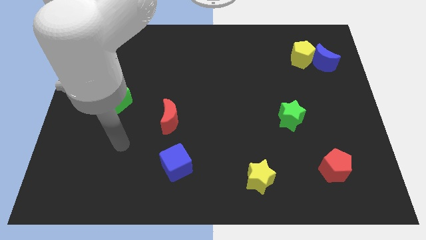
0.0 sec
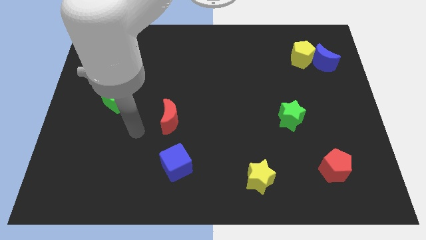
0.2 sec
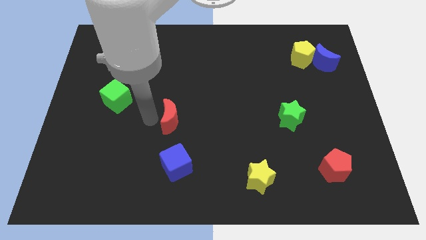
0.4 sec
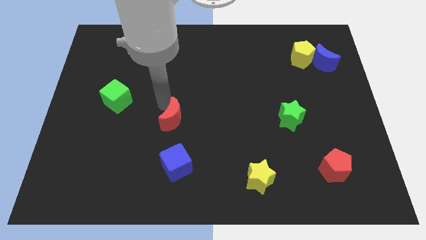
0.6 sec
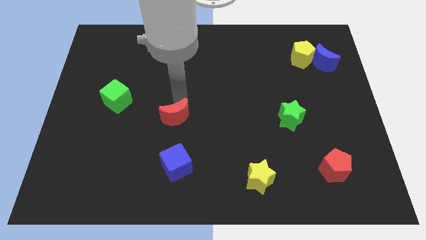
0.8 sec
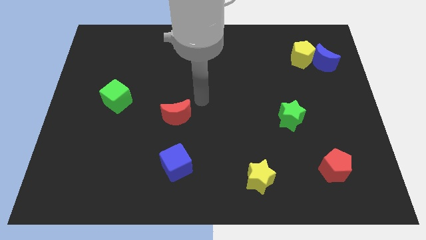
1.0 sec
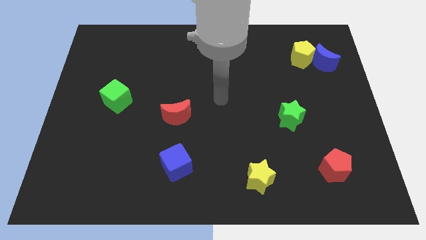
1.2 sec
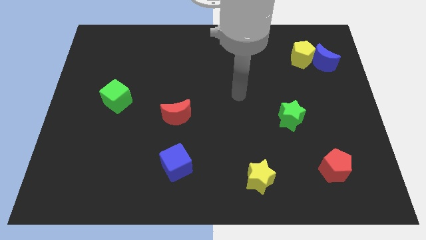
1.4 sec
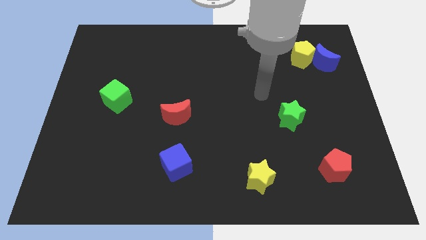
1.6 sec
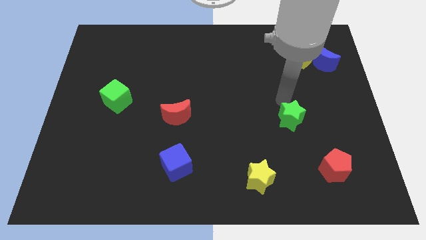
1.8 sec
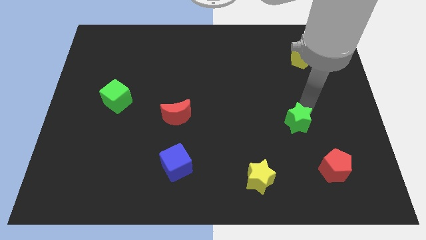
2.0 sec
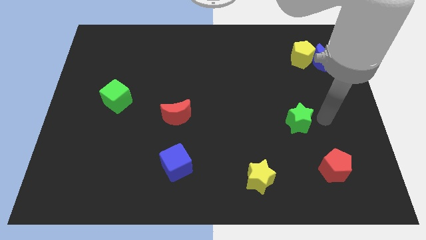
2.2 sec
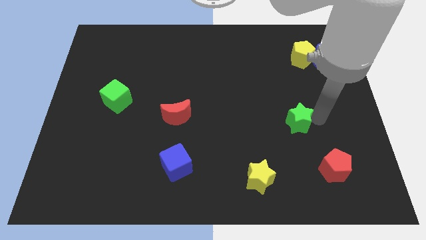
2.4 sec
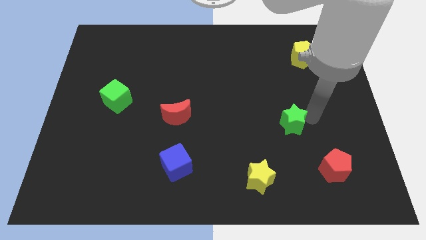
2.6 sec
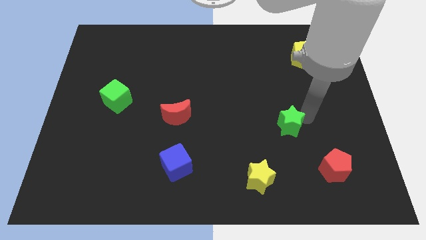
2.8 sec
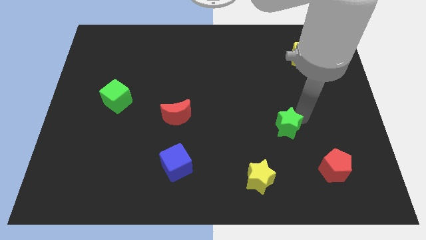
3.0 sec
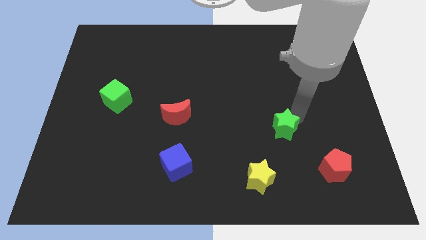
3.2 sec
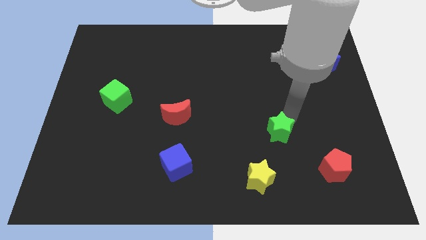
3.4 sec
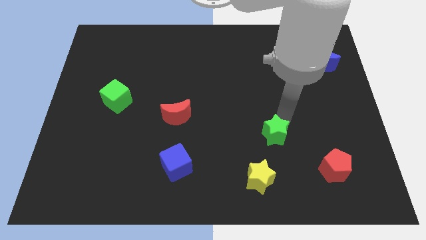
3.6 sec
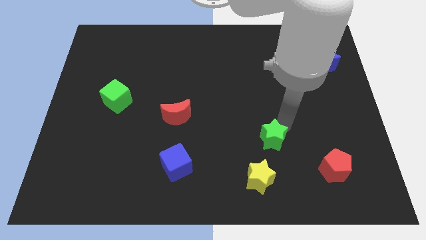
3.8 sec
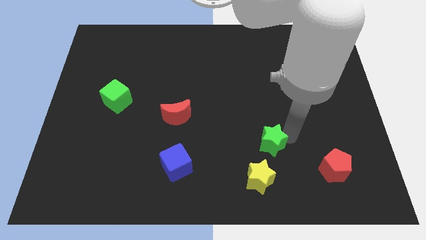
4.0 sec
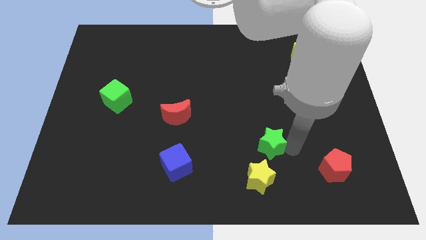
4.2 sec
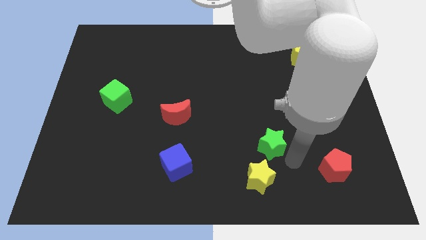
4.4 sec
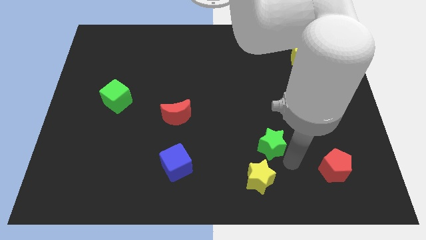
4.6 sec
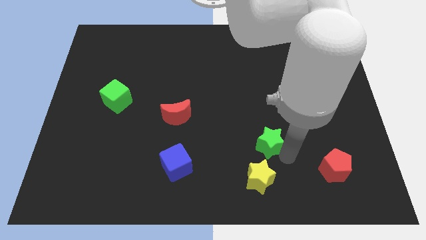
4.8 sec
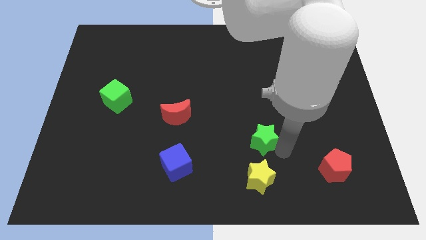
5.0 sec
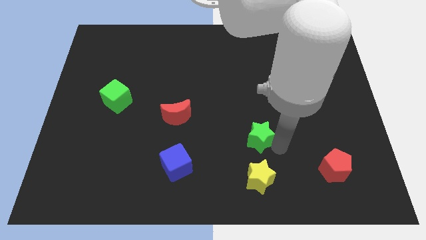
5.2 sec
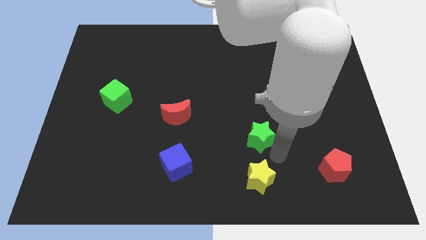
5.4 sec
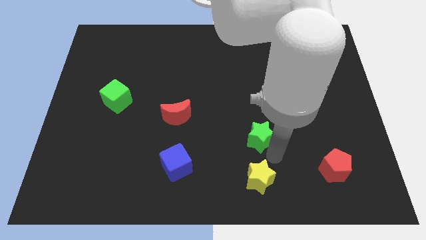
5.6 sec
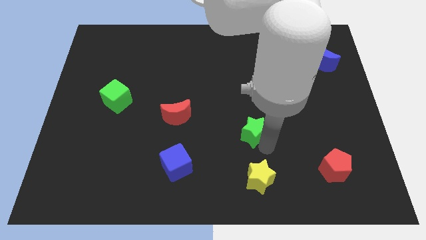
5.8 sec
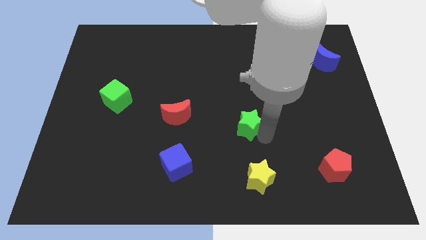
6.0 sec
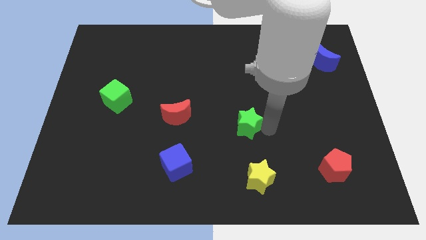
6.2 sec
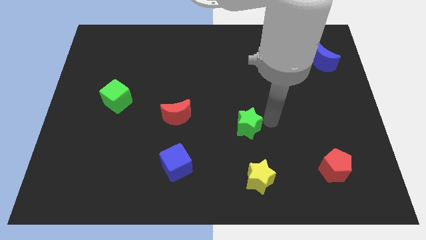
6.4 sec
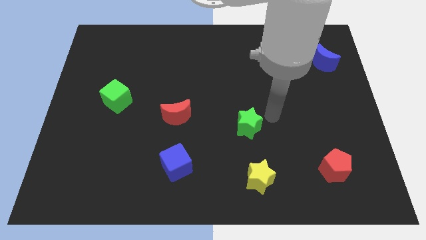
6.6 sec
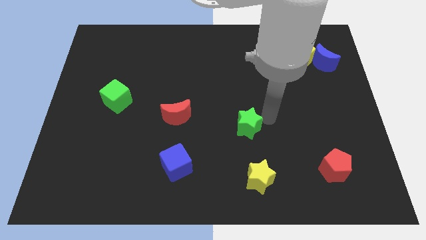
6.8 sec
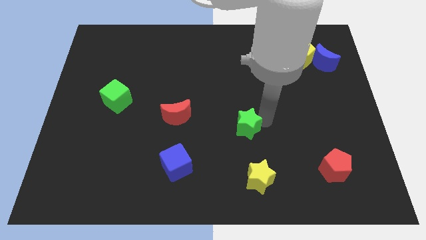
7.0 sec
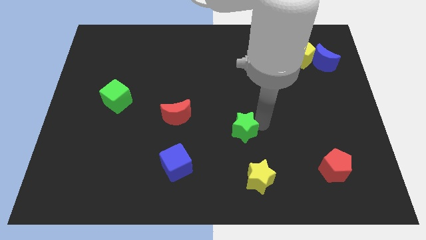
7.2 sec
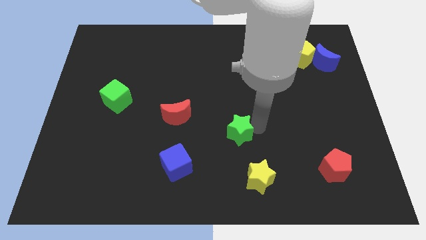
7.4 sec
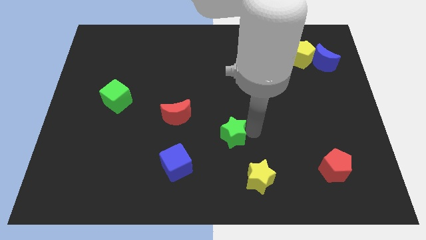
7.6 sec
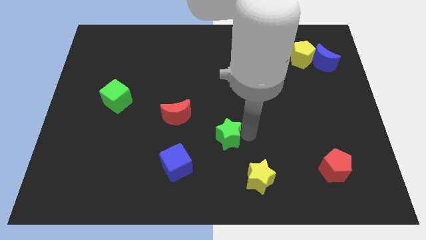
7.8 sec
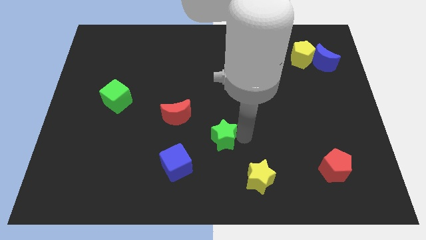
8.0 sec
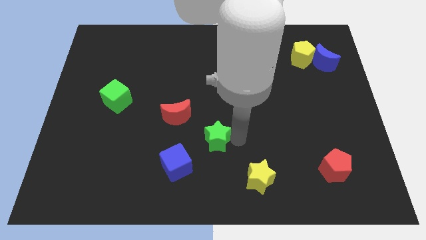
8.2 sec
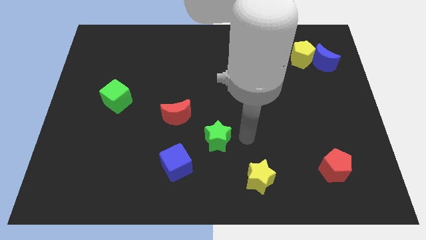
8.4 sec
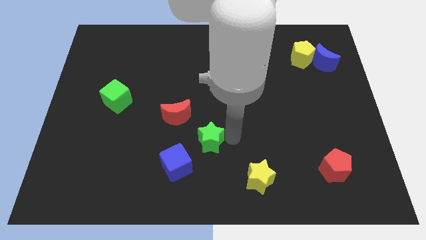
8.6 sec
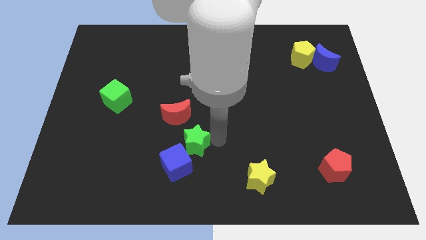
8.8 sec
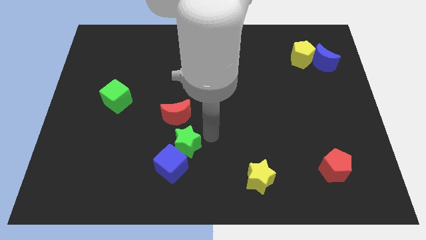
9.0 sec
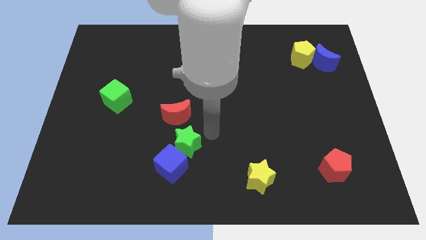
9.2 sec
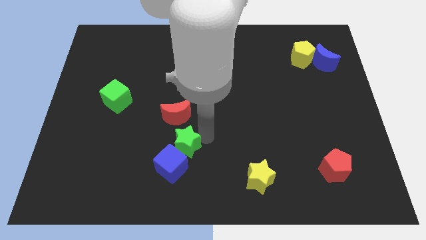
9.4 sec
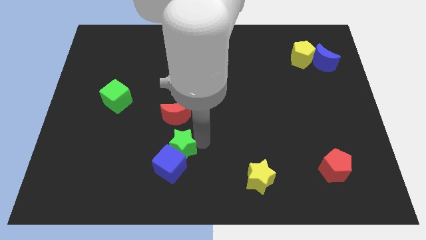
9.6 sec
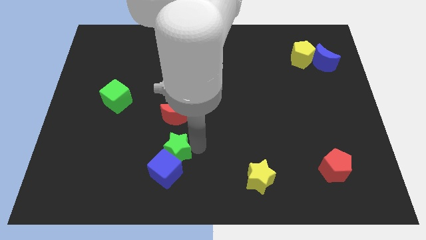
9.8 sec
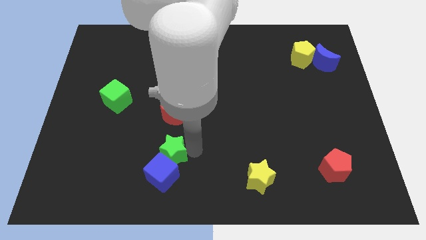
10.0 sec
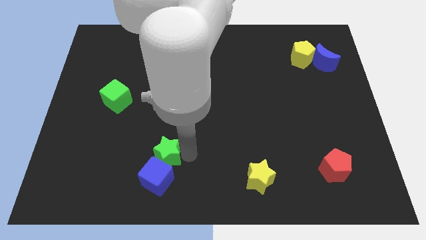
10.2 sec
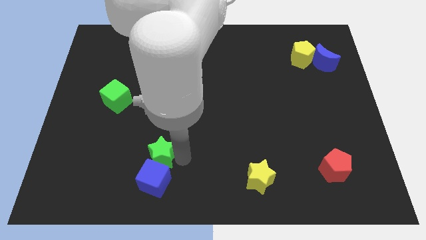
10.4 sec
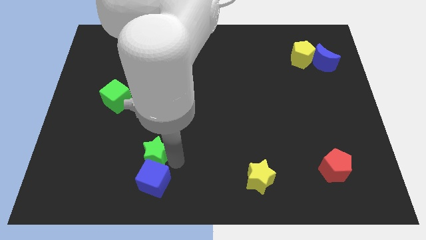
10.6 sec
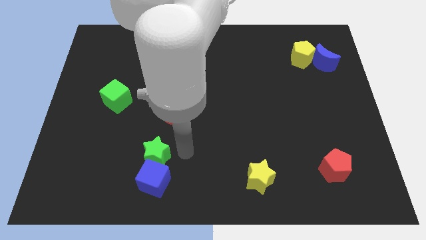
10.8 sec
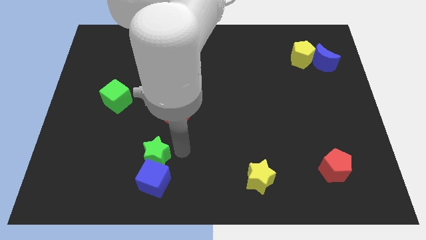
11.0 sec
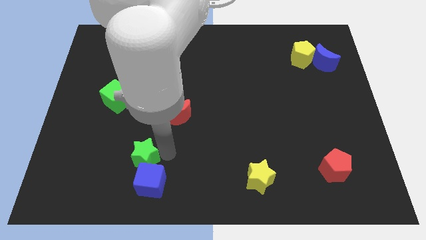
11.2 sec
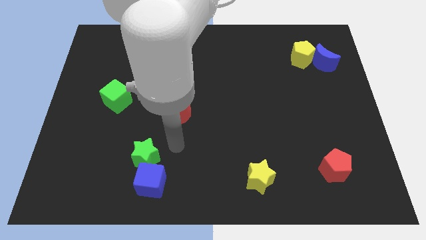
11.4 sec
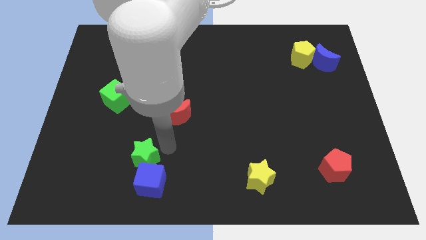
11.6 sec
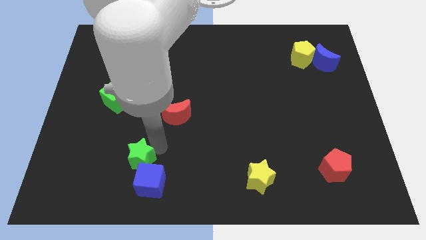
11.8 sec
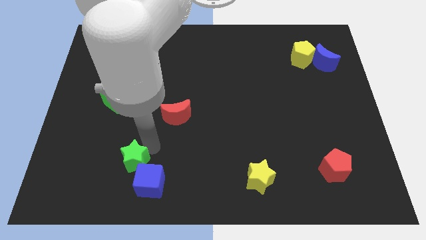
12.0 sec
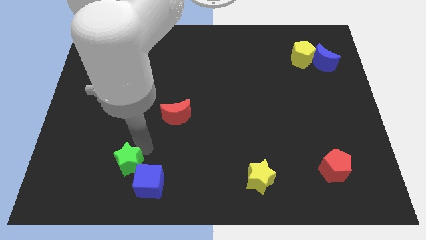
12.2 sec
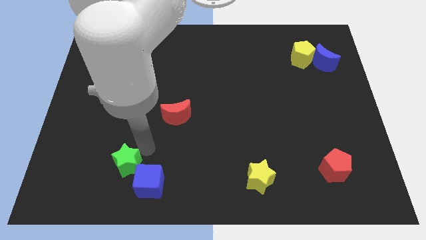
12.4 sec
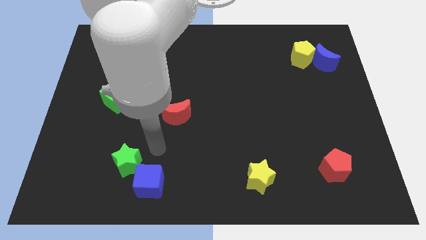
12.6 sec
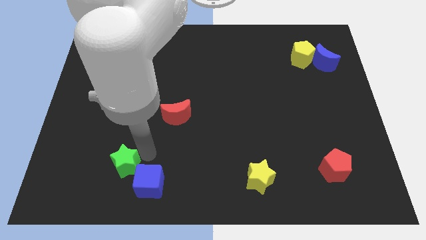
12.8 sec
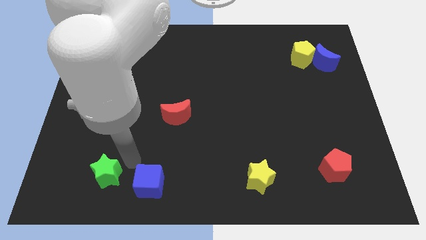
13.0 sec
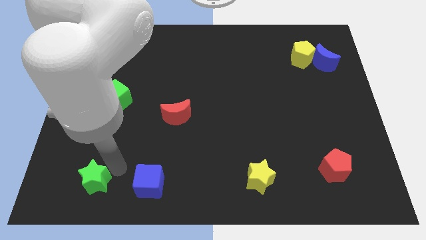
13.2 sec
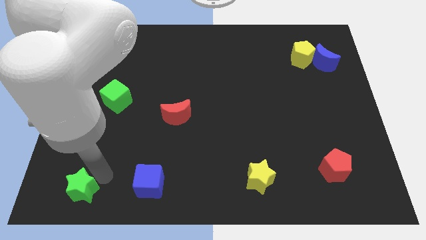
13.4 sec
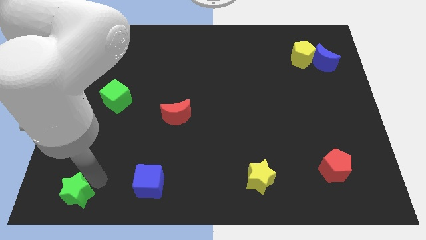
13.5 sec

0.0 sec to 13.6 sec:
put the green star to the bottom left corner
